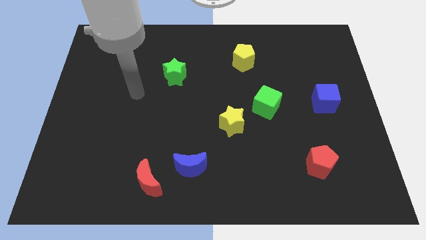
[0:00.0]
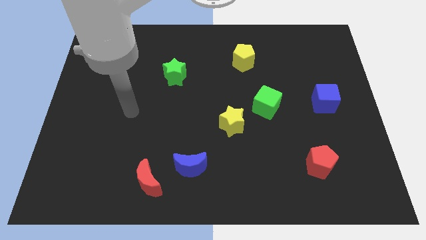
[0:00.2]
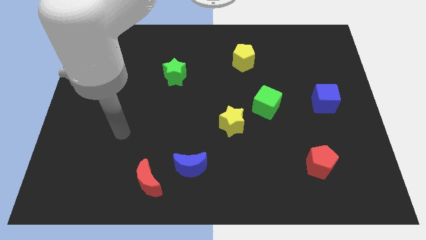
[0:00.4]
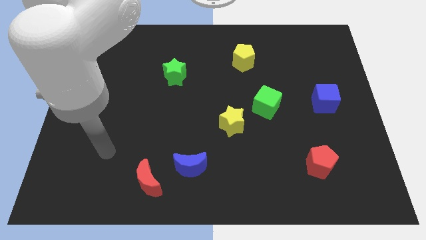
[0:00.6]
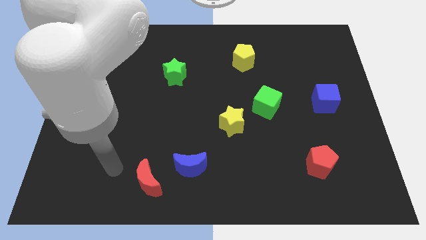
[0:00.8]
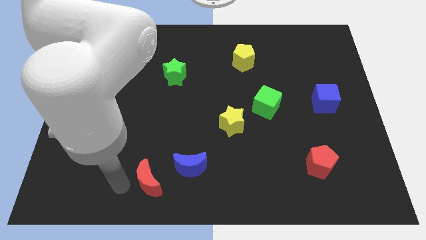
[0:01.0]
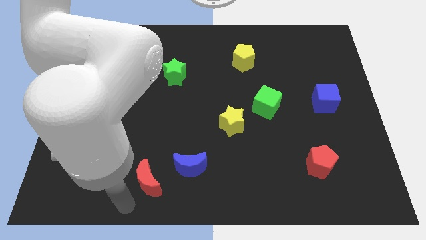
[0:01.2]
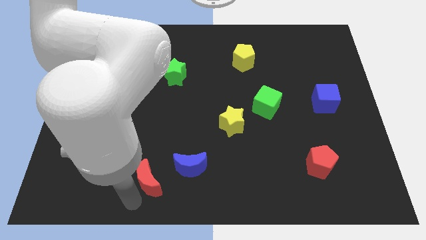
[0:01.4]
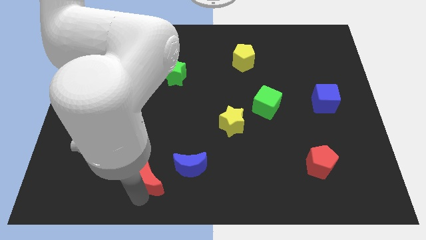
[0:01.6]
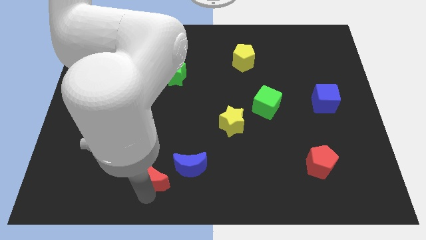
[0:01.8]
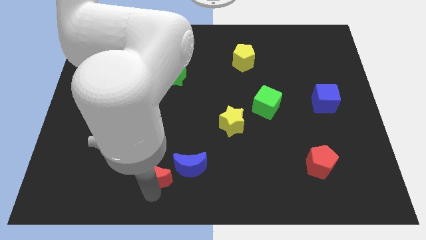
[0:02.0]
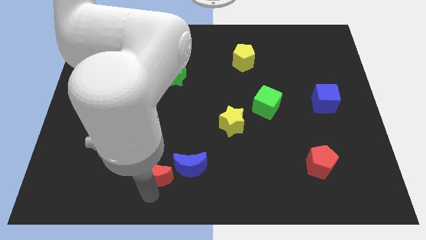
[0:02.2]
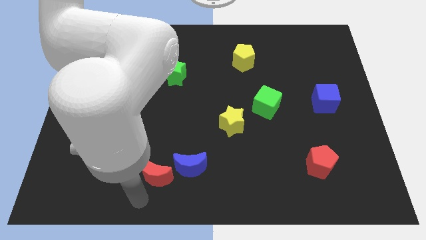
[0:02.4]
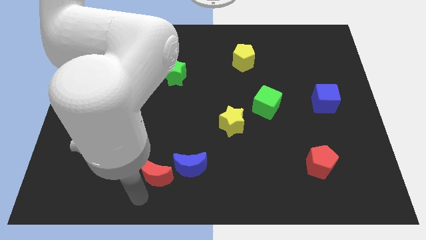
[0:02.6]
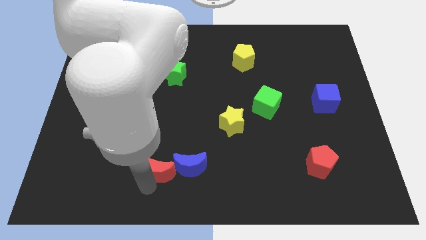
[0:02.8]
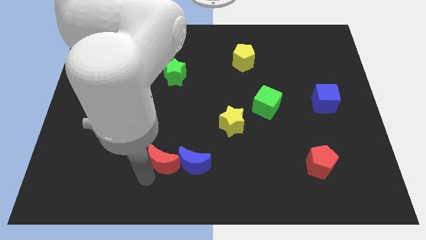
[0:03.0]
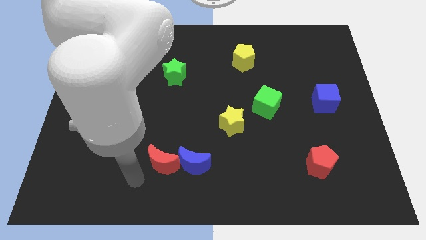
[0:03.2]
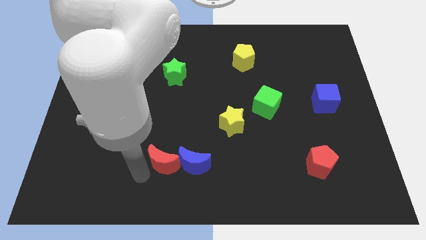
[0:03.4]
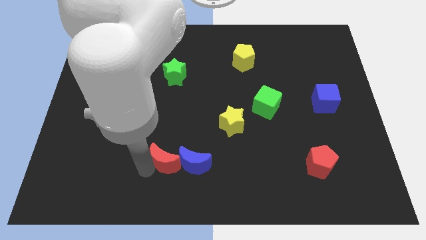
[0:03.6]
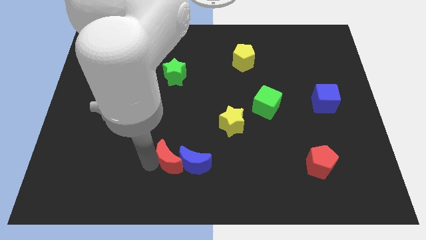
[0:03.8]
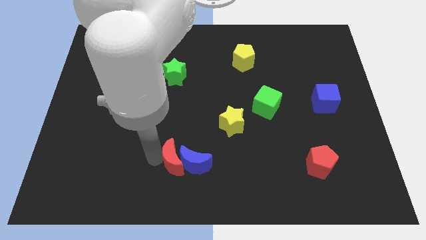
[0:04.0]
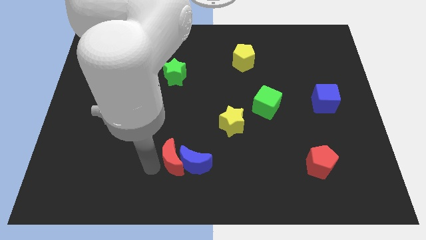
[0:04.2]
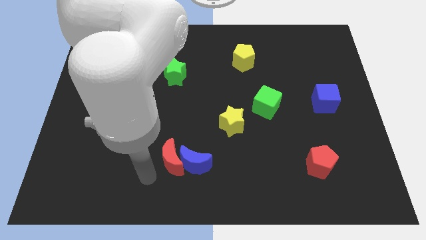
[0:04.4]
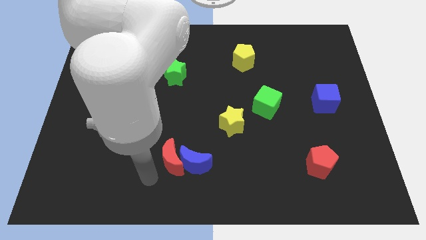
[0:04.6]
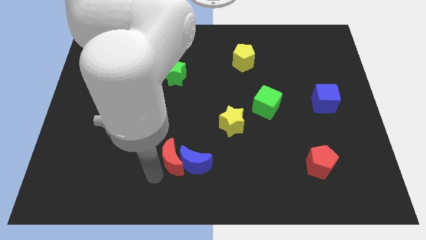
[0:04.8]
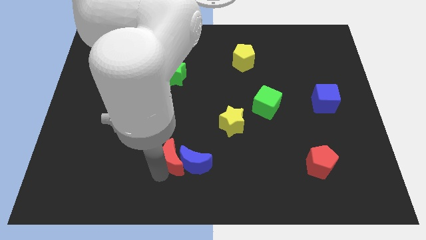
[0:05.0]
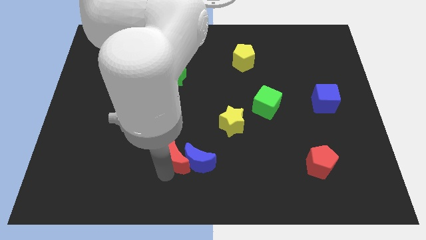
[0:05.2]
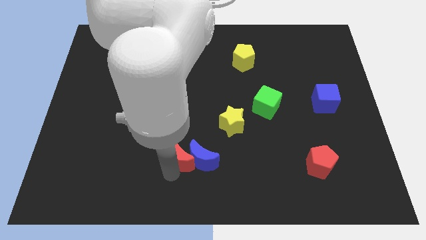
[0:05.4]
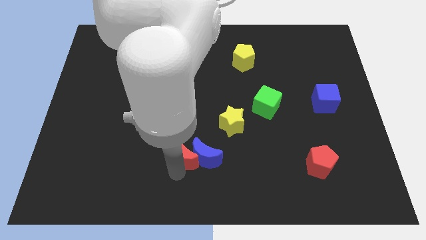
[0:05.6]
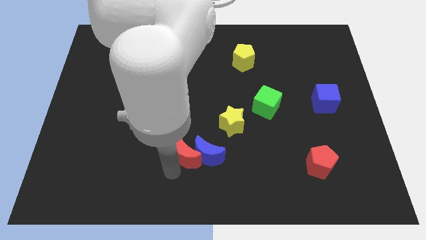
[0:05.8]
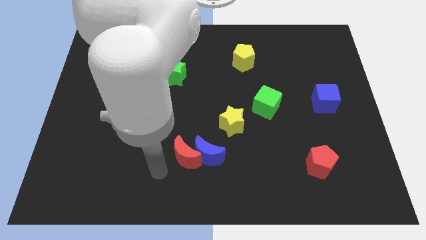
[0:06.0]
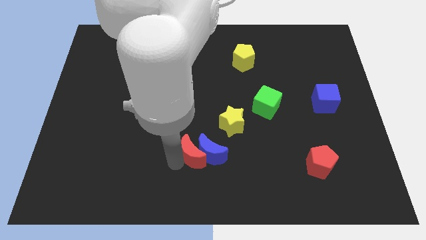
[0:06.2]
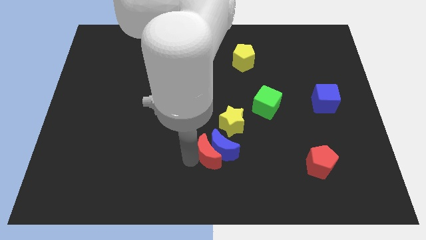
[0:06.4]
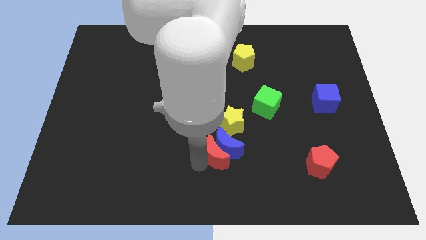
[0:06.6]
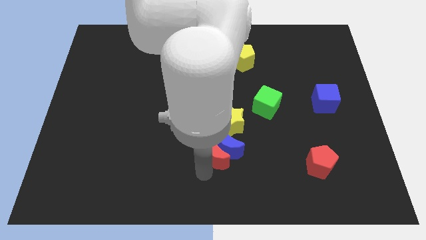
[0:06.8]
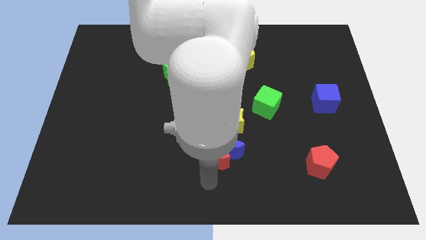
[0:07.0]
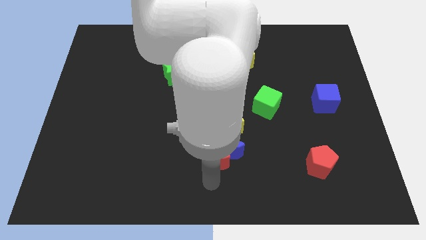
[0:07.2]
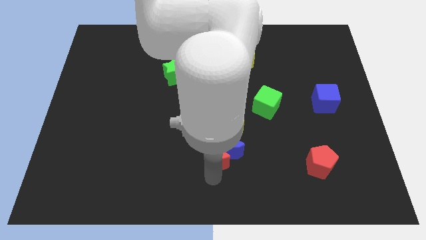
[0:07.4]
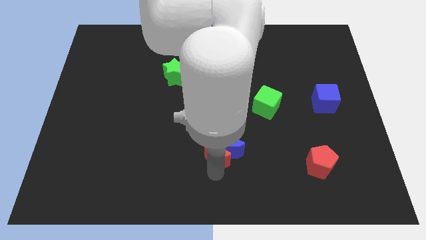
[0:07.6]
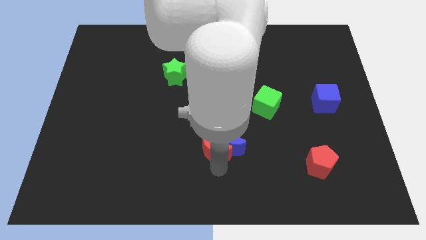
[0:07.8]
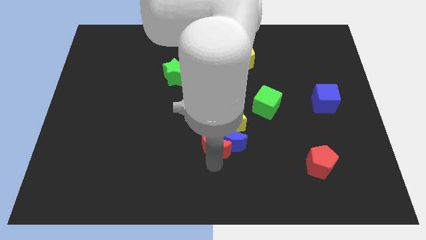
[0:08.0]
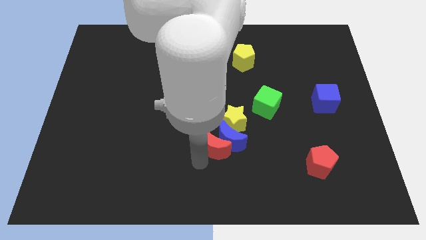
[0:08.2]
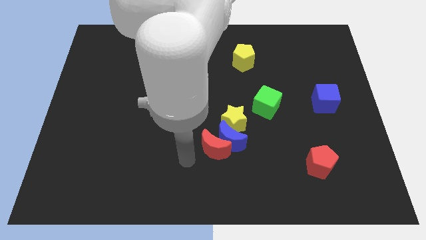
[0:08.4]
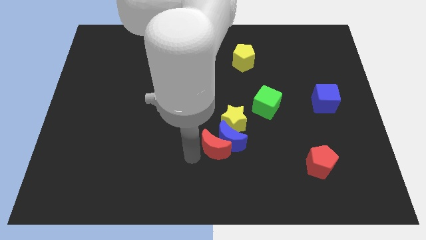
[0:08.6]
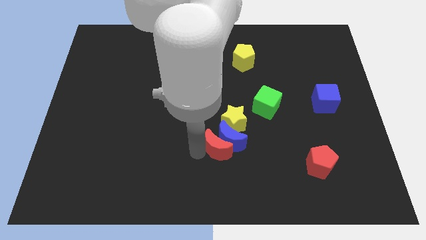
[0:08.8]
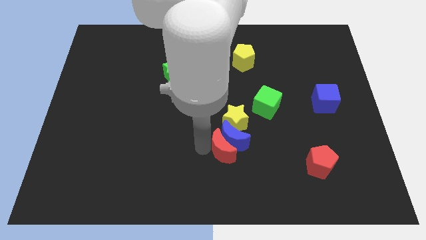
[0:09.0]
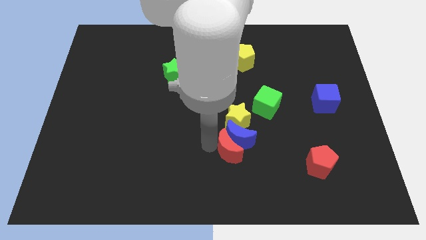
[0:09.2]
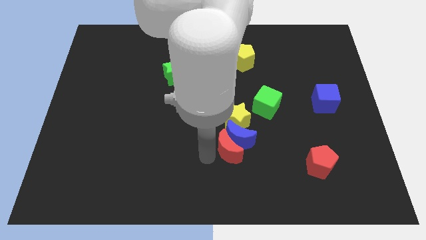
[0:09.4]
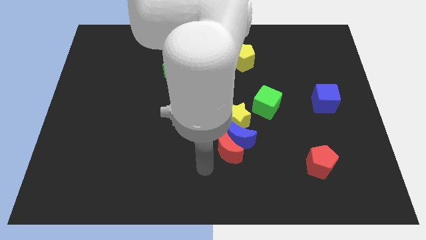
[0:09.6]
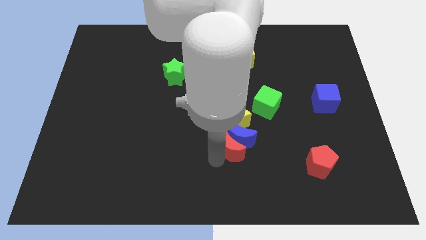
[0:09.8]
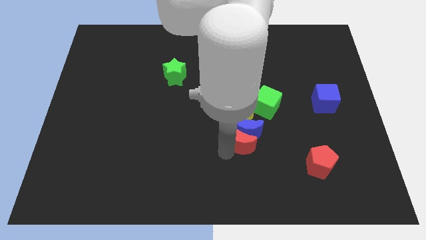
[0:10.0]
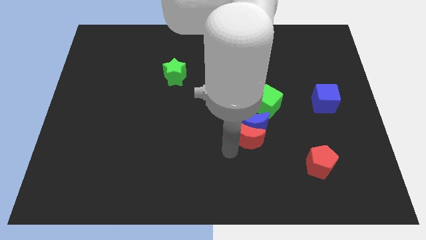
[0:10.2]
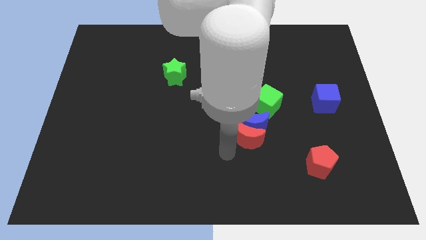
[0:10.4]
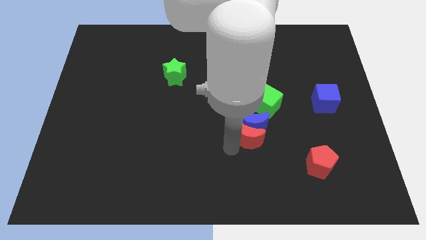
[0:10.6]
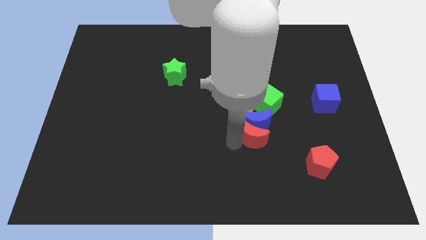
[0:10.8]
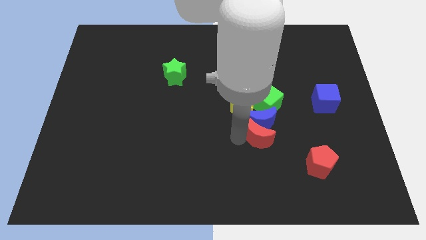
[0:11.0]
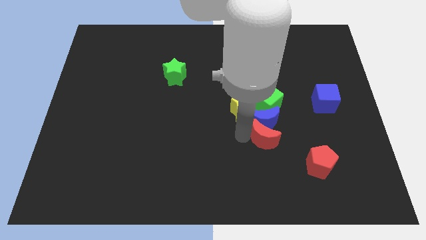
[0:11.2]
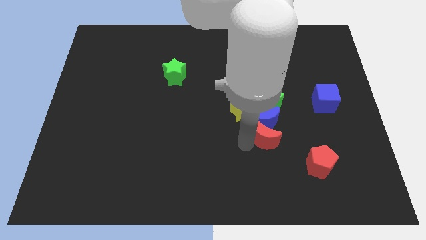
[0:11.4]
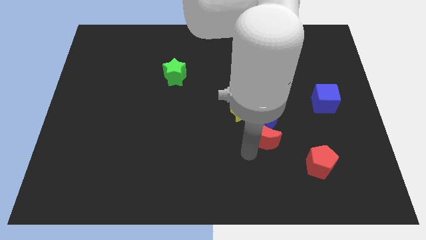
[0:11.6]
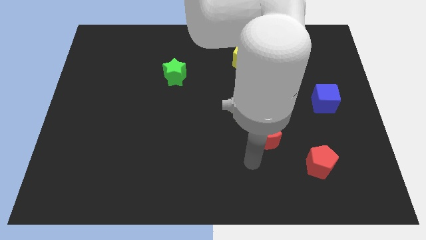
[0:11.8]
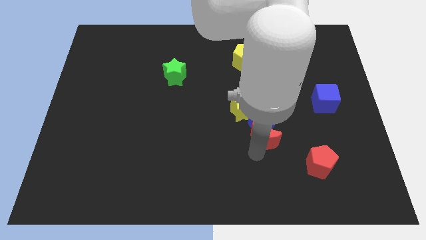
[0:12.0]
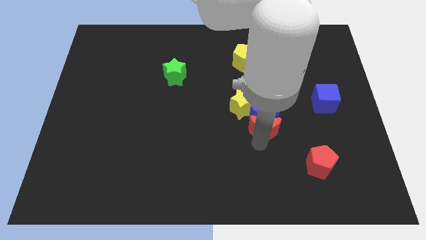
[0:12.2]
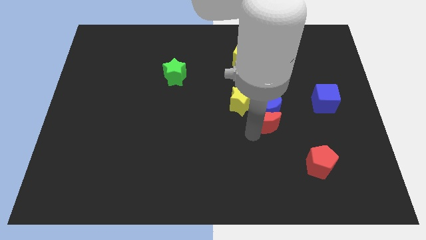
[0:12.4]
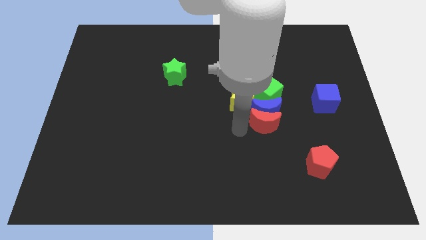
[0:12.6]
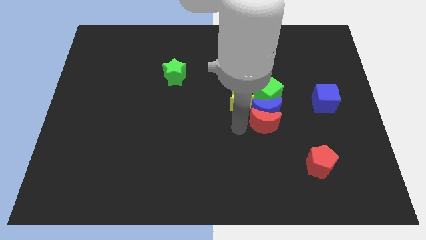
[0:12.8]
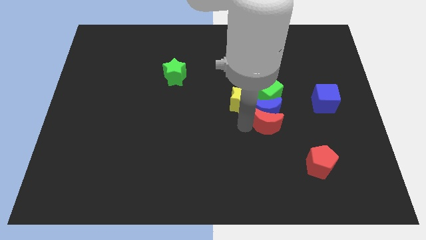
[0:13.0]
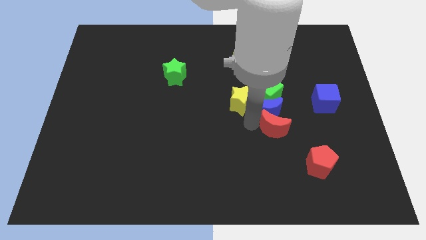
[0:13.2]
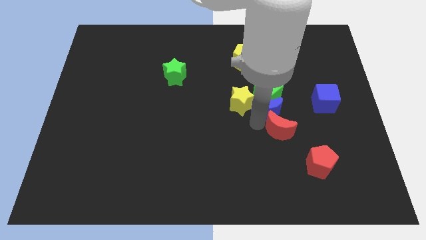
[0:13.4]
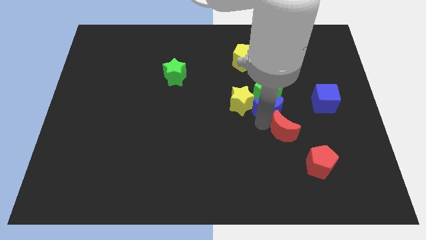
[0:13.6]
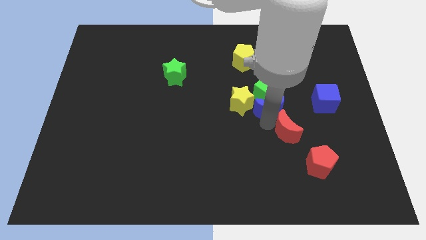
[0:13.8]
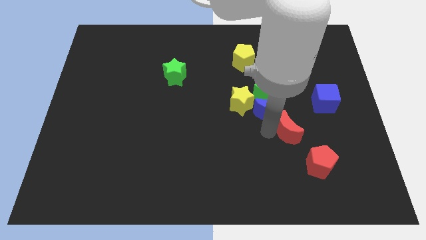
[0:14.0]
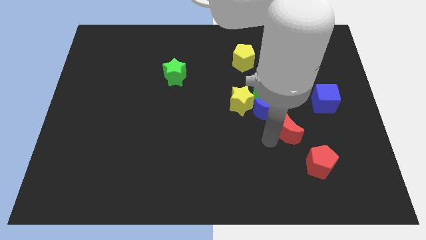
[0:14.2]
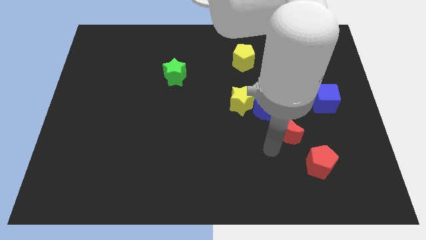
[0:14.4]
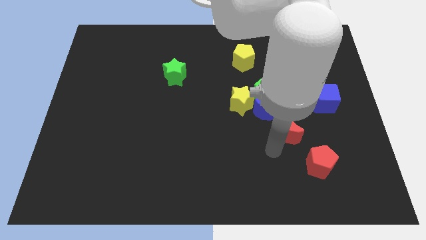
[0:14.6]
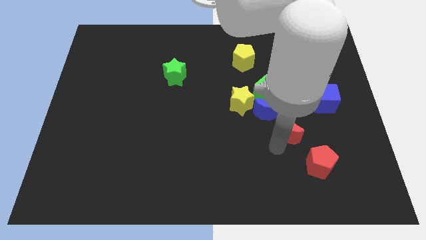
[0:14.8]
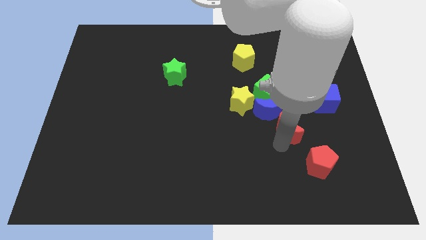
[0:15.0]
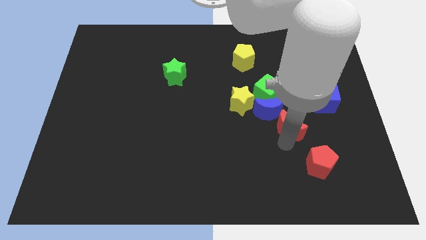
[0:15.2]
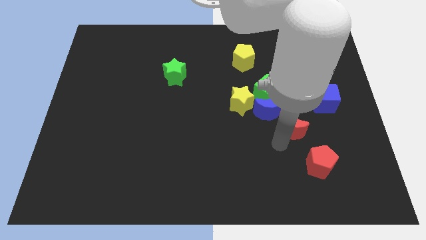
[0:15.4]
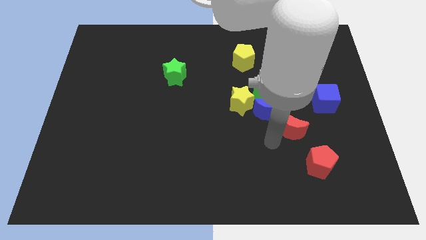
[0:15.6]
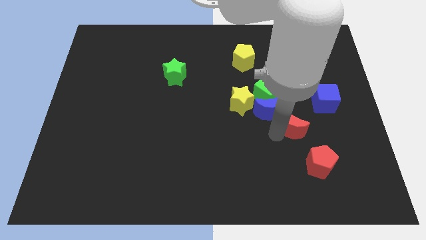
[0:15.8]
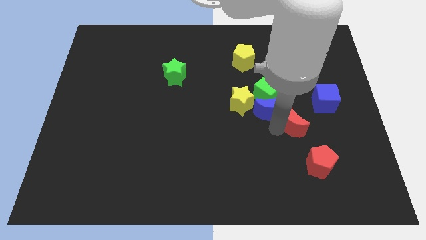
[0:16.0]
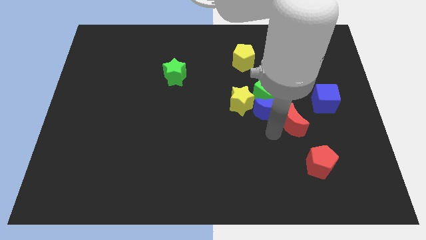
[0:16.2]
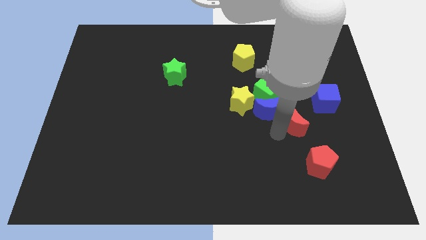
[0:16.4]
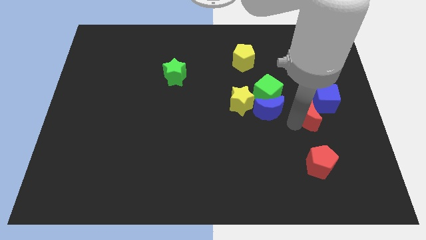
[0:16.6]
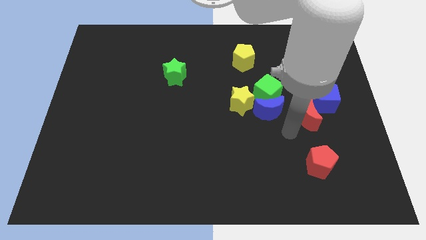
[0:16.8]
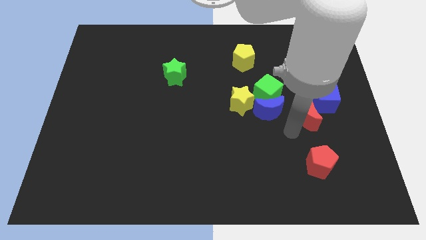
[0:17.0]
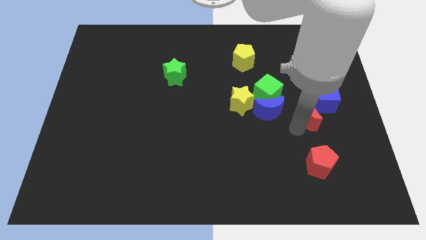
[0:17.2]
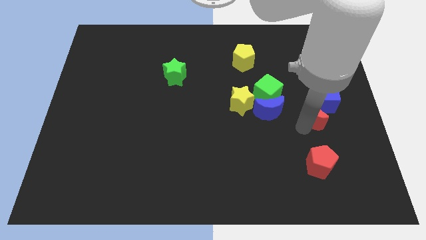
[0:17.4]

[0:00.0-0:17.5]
slide the red moon close to the blue cube
